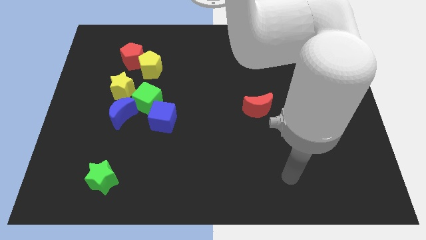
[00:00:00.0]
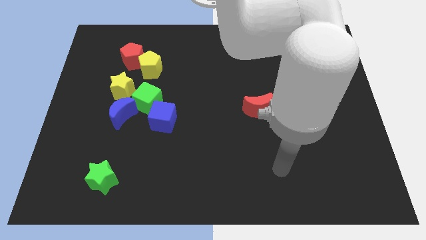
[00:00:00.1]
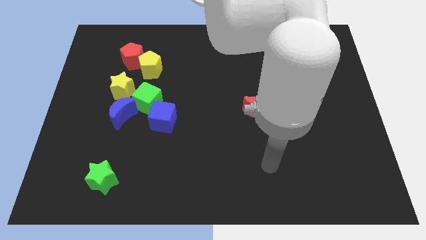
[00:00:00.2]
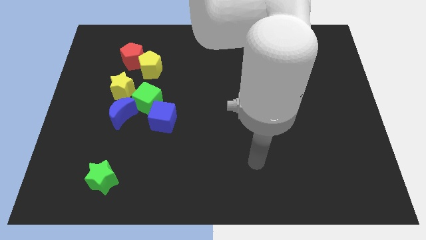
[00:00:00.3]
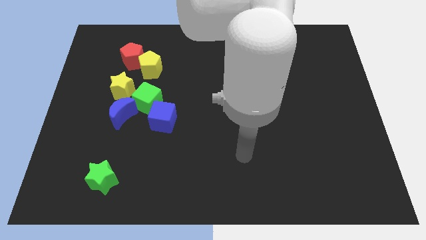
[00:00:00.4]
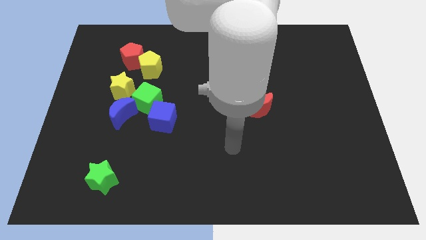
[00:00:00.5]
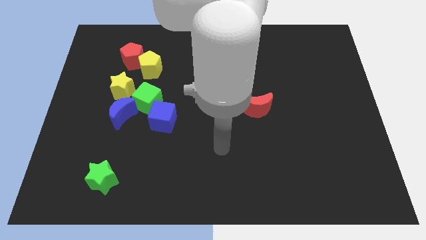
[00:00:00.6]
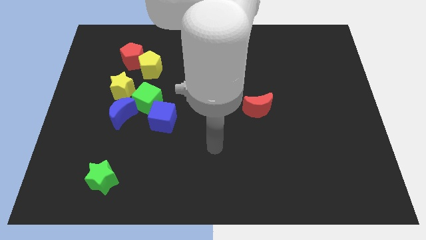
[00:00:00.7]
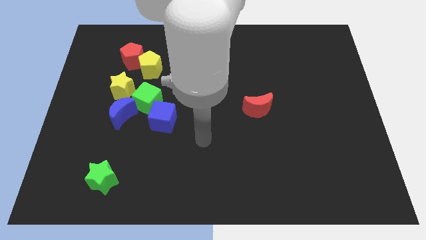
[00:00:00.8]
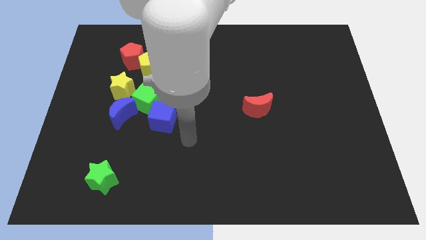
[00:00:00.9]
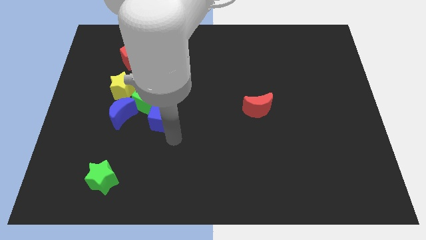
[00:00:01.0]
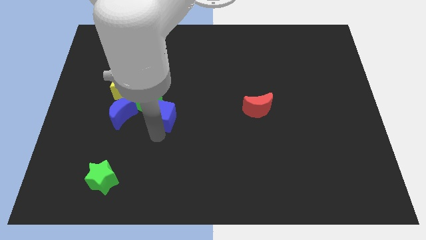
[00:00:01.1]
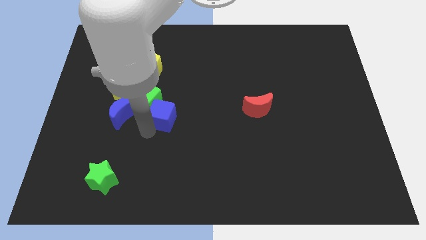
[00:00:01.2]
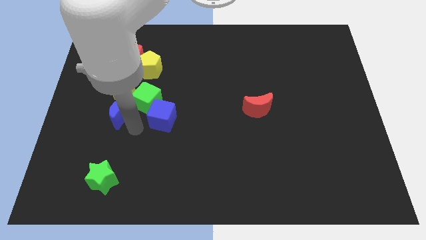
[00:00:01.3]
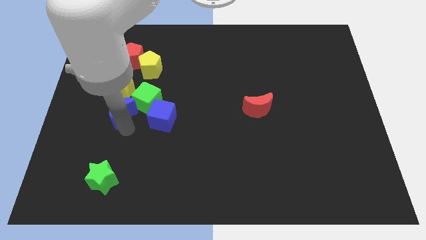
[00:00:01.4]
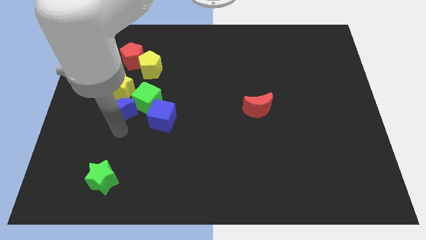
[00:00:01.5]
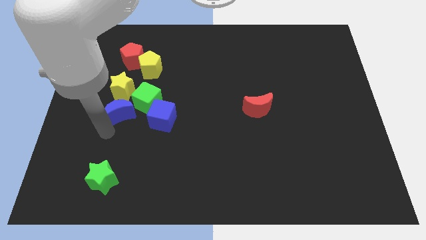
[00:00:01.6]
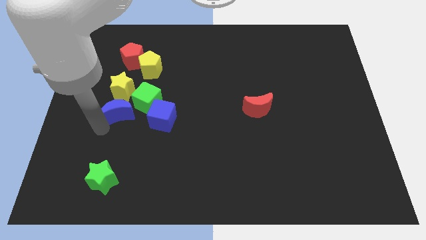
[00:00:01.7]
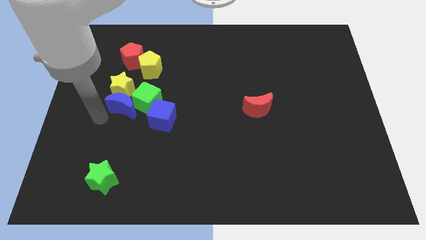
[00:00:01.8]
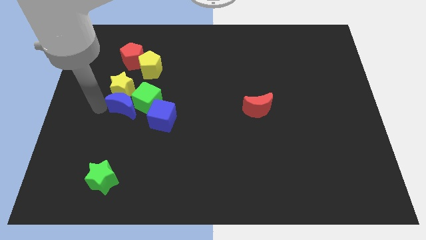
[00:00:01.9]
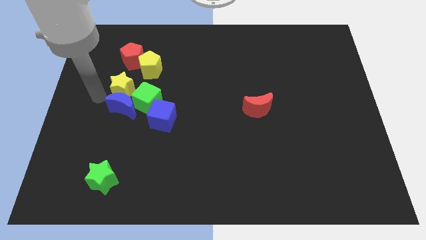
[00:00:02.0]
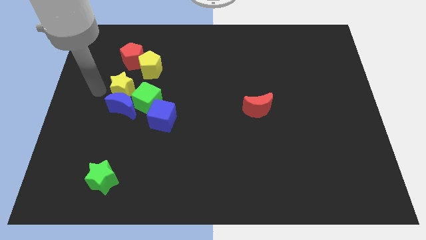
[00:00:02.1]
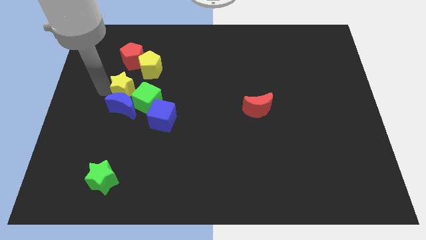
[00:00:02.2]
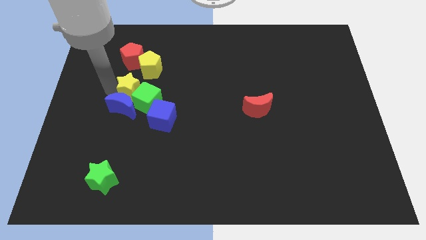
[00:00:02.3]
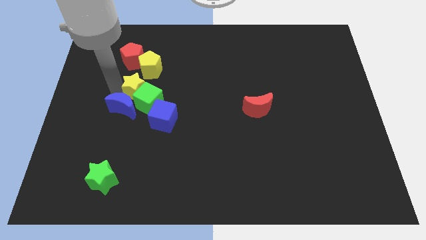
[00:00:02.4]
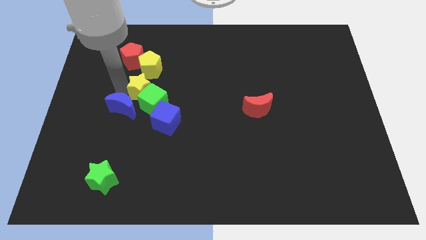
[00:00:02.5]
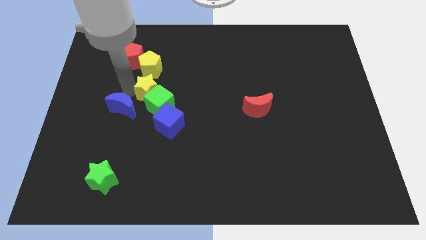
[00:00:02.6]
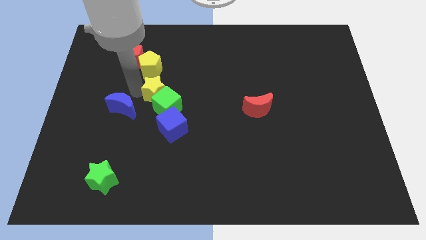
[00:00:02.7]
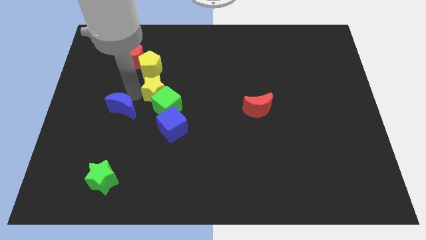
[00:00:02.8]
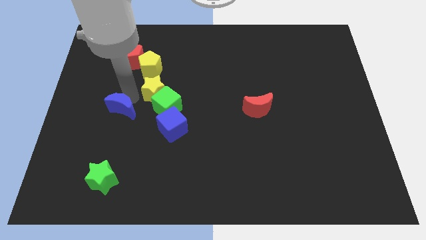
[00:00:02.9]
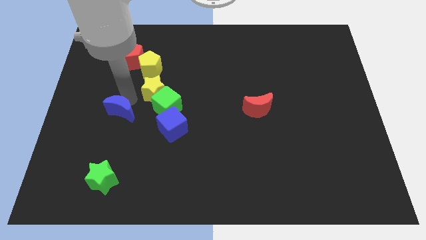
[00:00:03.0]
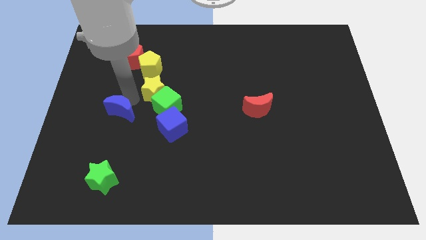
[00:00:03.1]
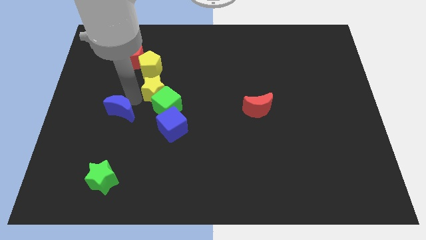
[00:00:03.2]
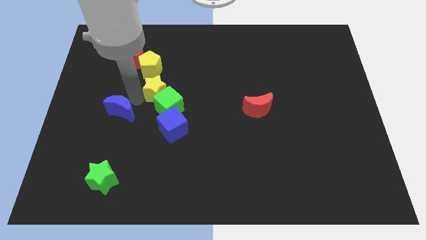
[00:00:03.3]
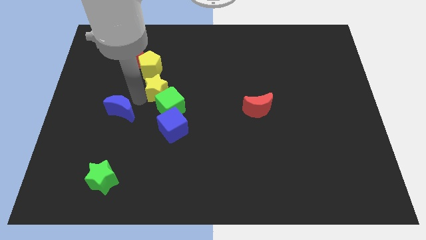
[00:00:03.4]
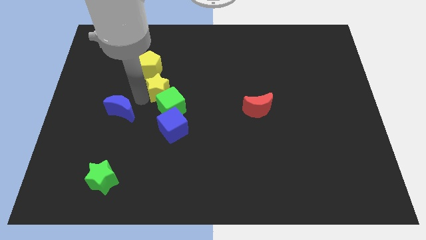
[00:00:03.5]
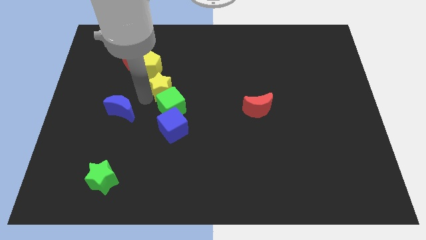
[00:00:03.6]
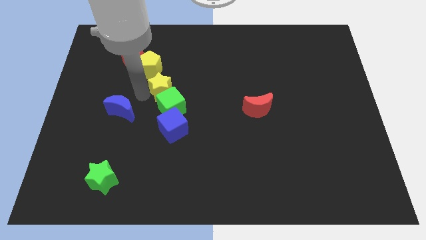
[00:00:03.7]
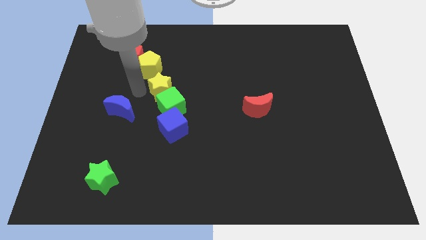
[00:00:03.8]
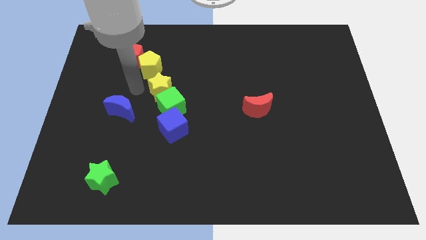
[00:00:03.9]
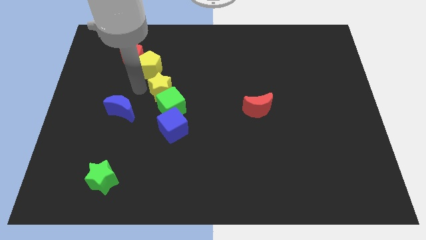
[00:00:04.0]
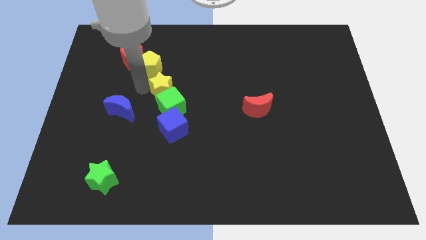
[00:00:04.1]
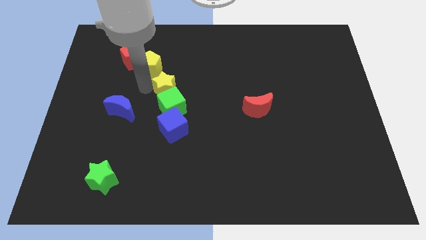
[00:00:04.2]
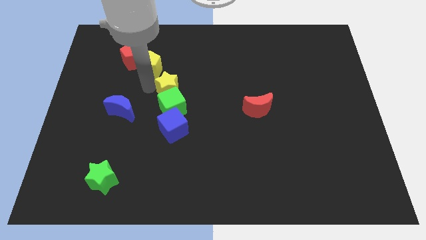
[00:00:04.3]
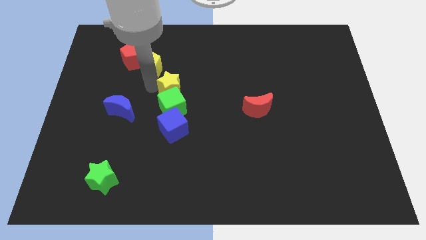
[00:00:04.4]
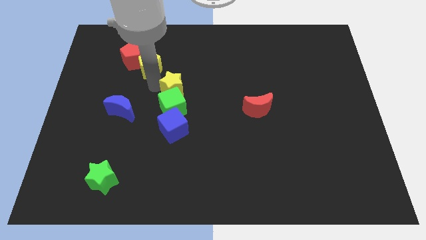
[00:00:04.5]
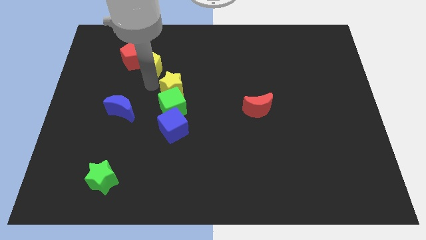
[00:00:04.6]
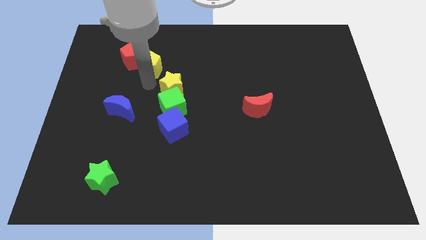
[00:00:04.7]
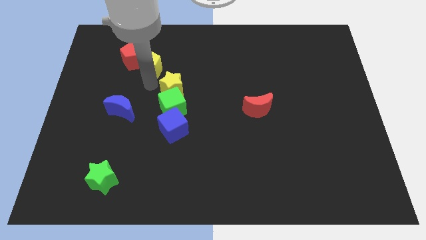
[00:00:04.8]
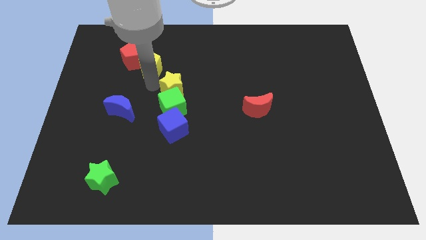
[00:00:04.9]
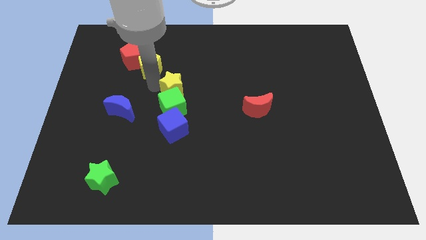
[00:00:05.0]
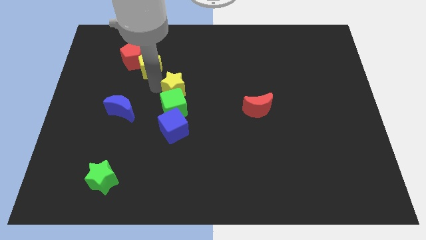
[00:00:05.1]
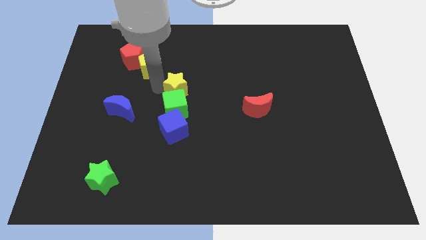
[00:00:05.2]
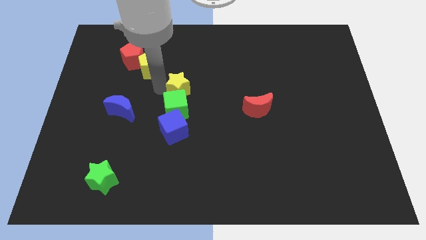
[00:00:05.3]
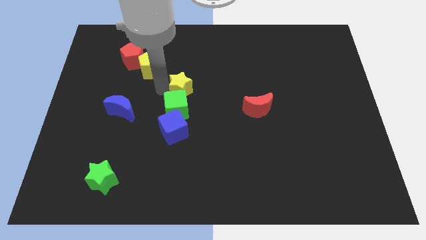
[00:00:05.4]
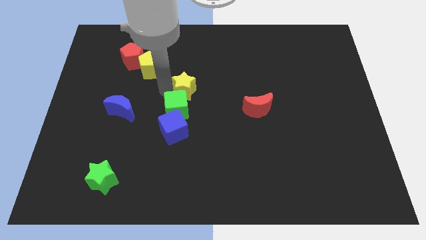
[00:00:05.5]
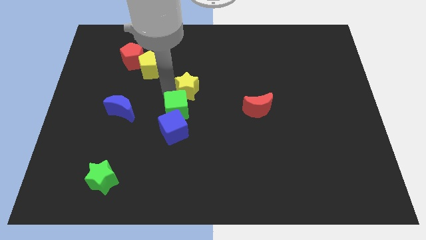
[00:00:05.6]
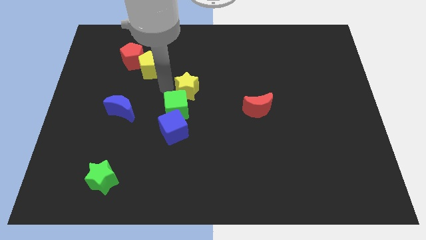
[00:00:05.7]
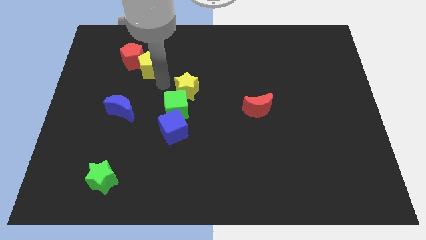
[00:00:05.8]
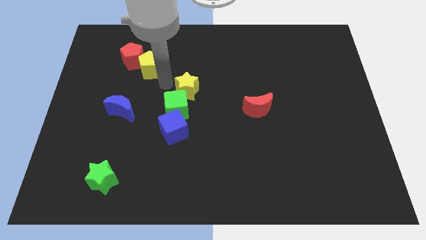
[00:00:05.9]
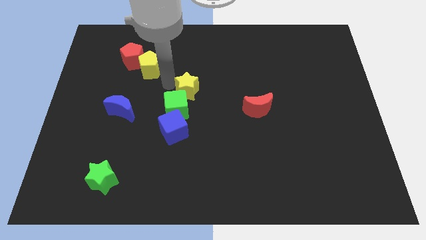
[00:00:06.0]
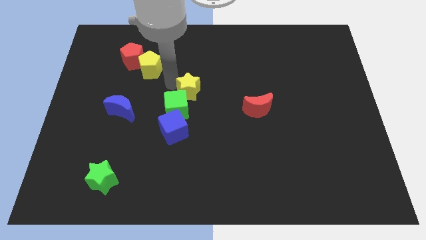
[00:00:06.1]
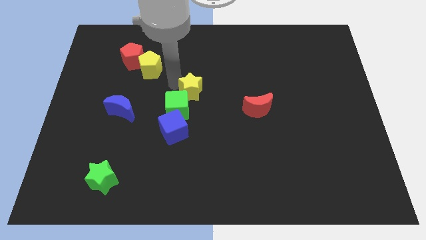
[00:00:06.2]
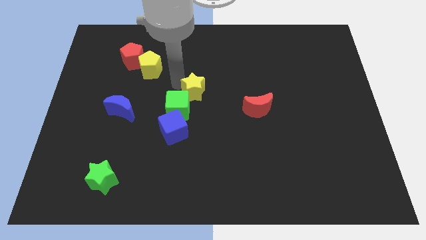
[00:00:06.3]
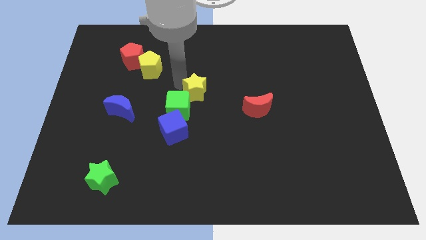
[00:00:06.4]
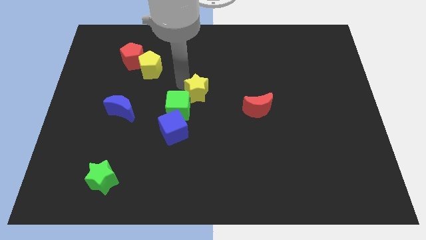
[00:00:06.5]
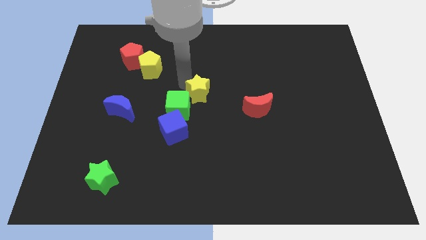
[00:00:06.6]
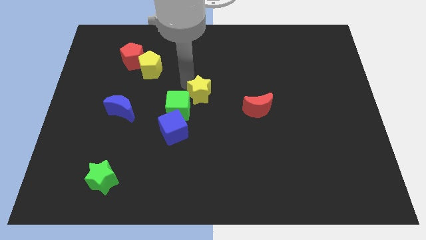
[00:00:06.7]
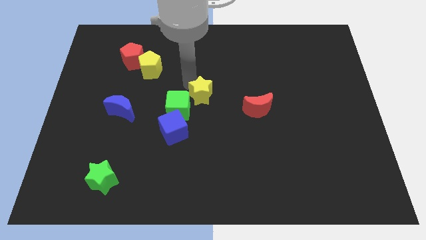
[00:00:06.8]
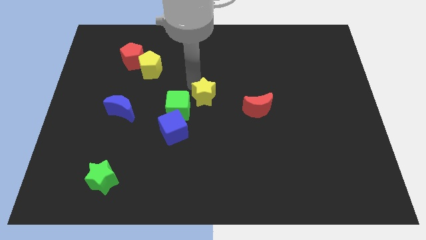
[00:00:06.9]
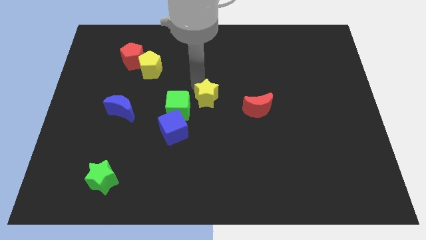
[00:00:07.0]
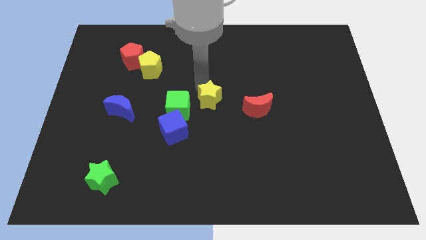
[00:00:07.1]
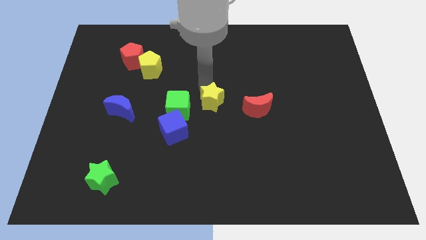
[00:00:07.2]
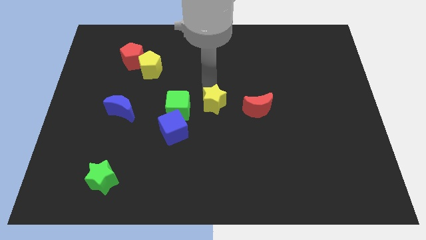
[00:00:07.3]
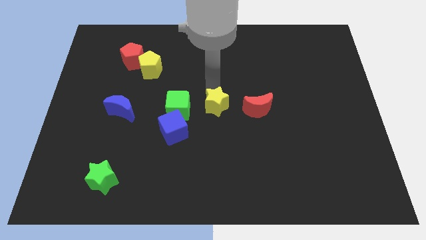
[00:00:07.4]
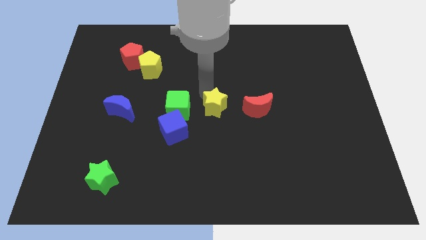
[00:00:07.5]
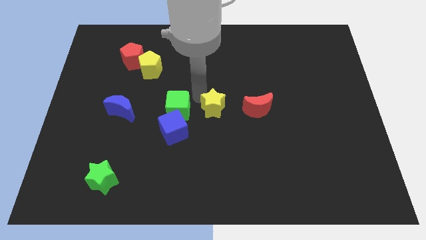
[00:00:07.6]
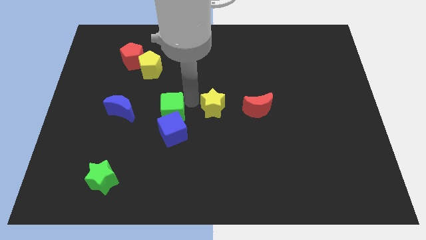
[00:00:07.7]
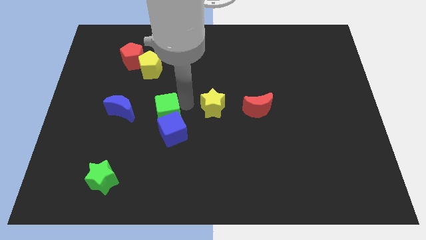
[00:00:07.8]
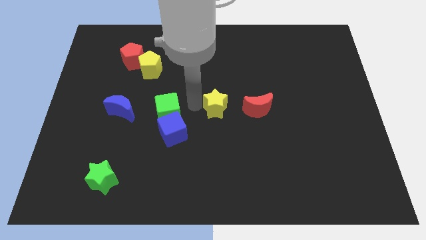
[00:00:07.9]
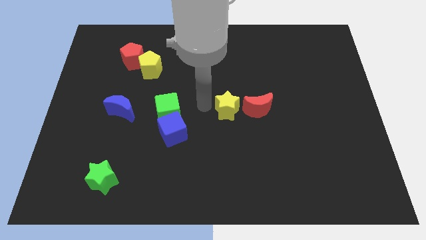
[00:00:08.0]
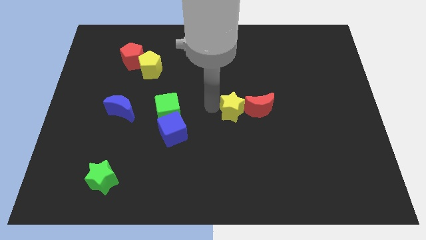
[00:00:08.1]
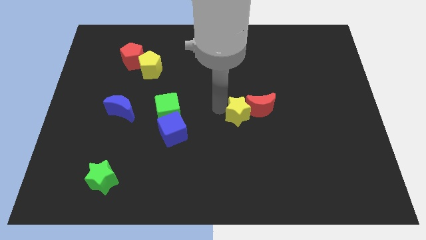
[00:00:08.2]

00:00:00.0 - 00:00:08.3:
slide the yellow star towards the red moon
